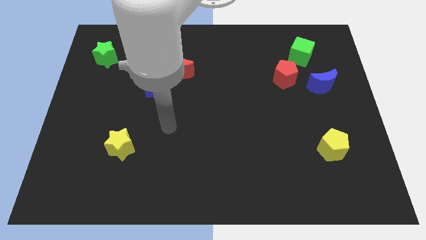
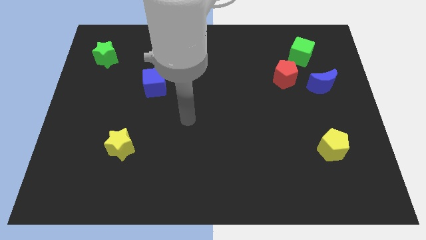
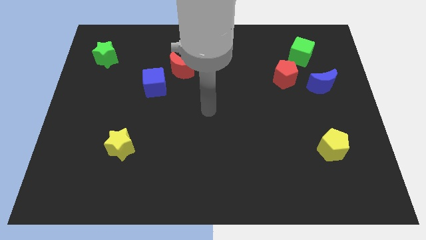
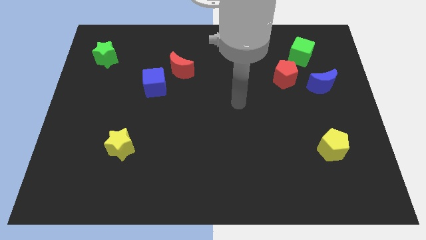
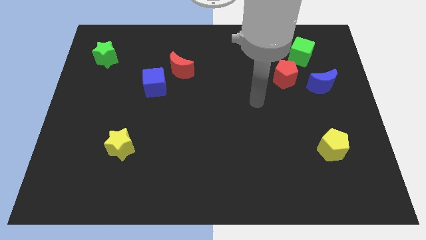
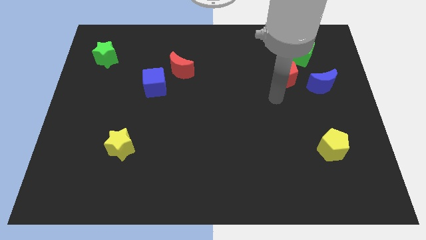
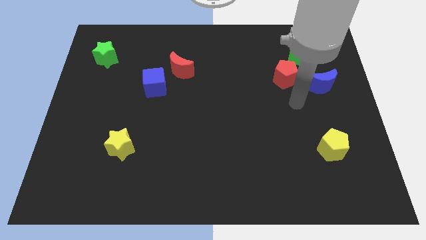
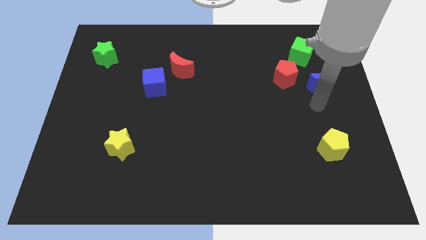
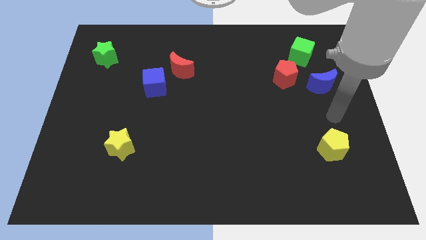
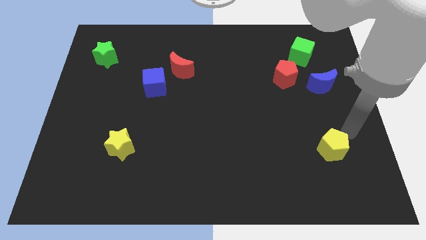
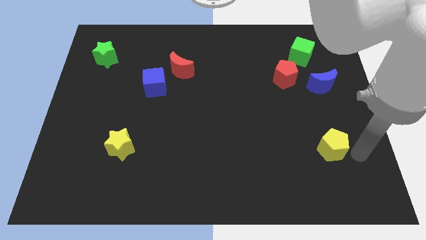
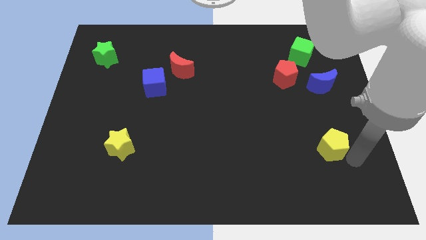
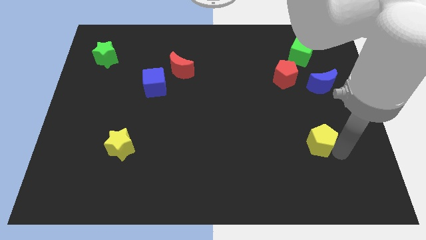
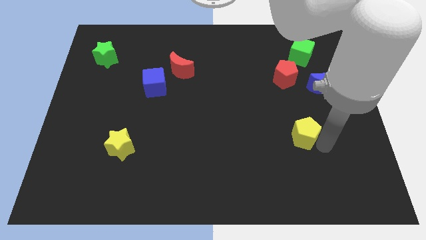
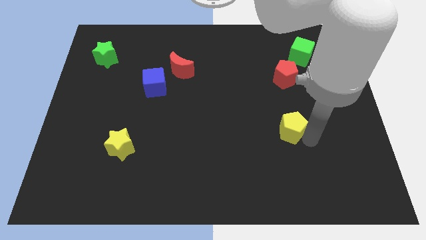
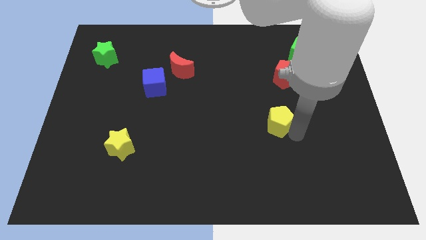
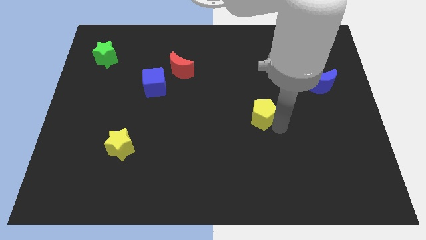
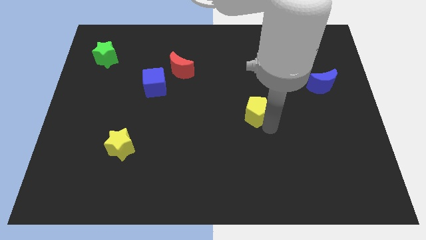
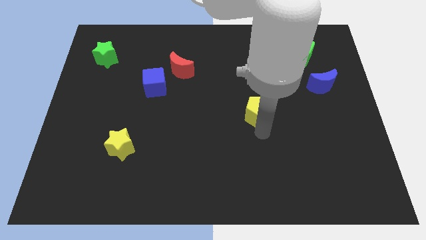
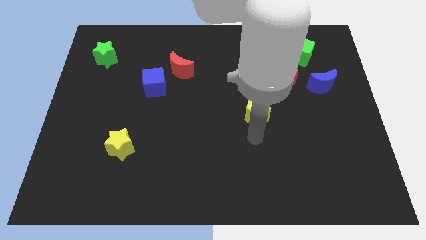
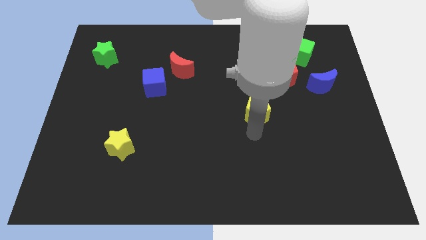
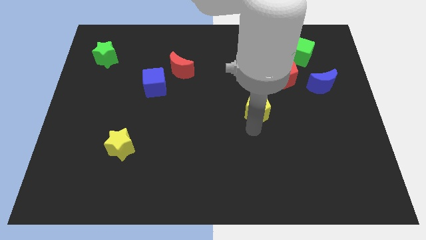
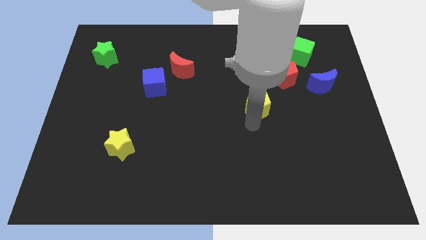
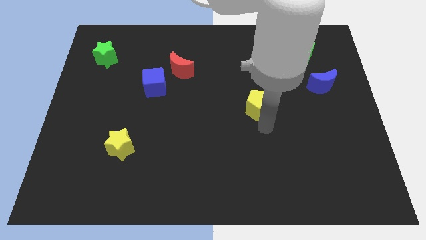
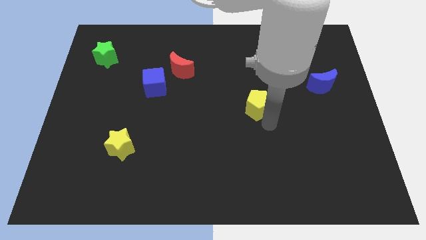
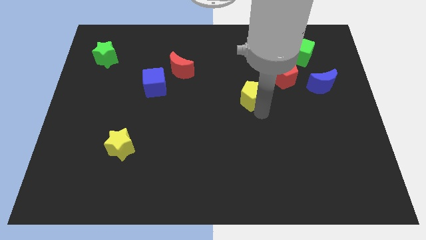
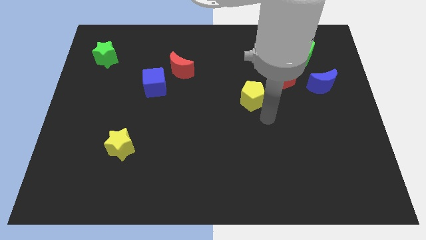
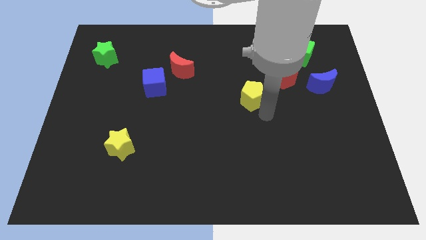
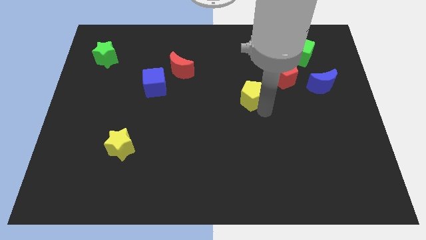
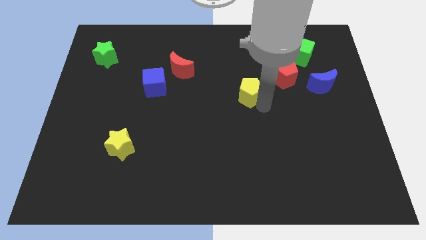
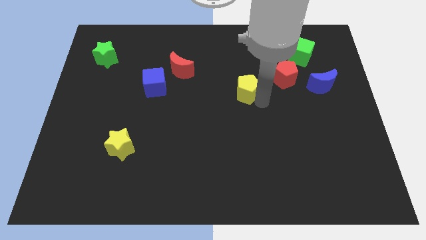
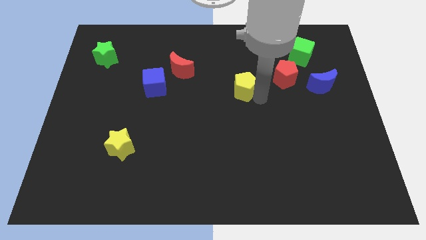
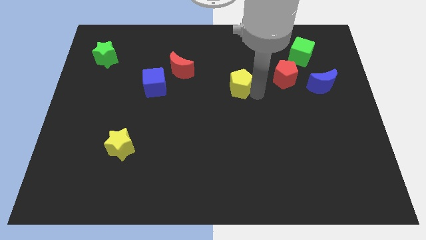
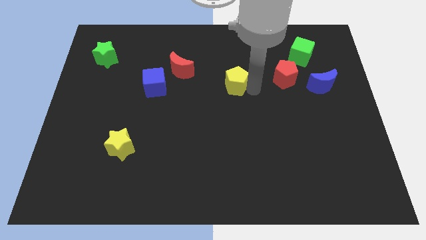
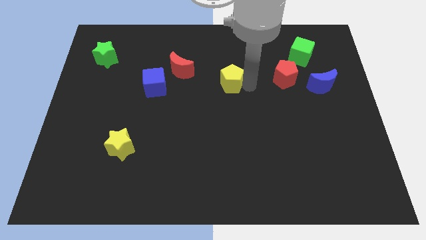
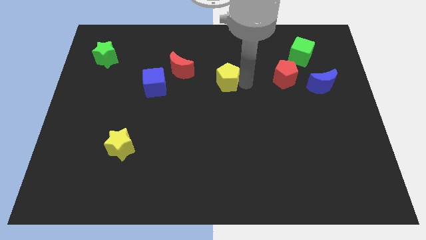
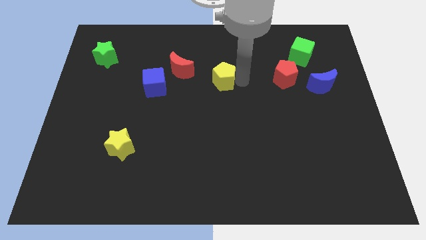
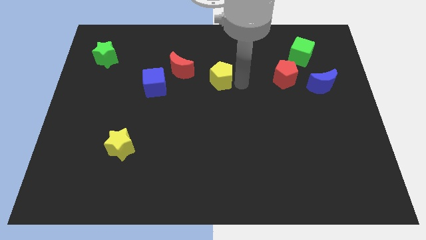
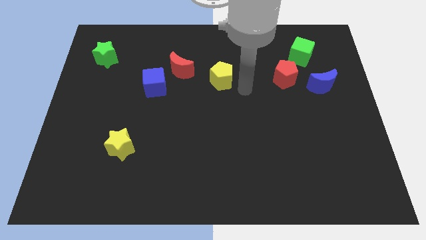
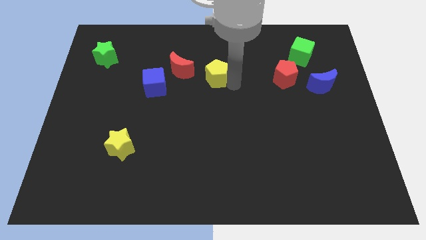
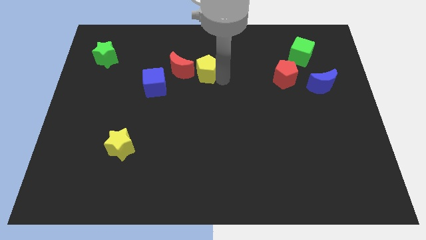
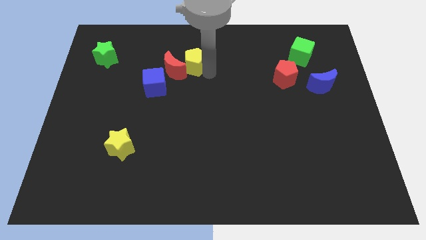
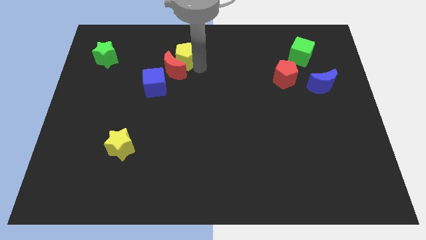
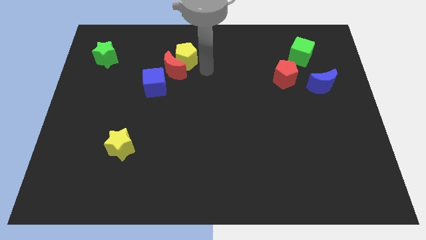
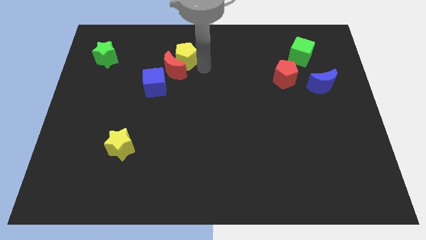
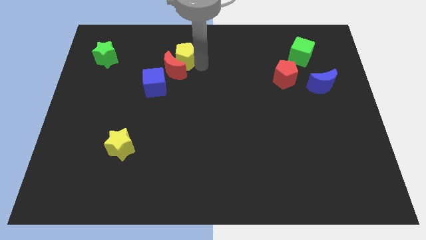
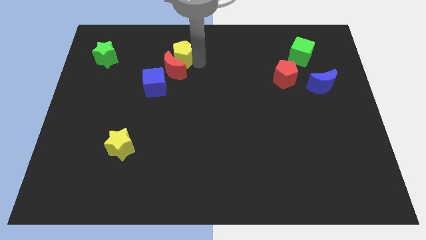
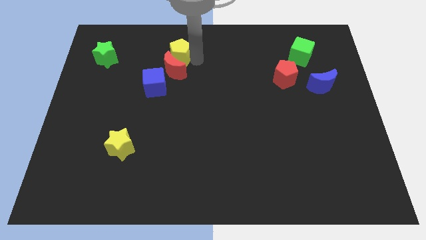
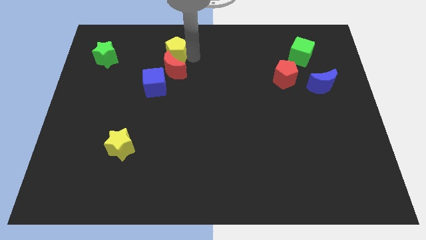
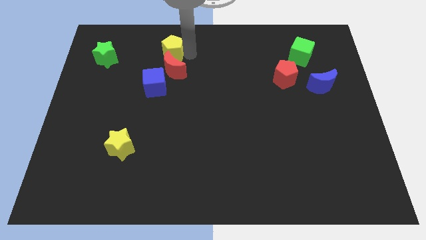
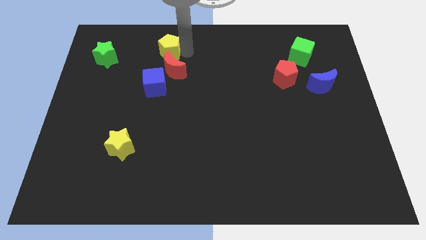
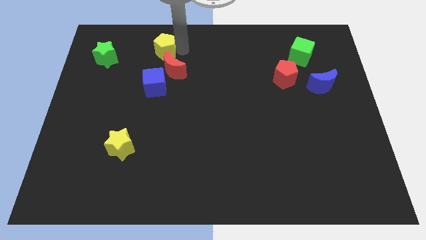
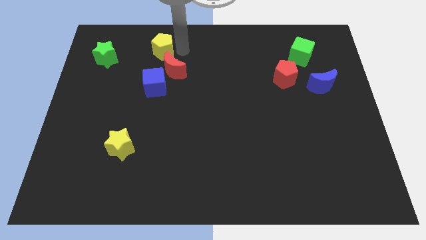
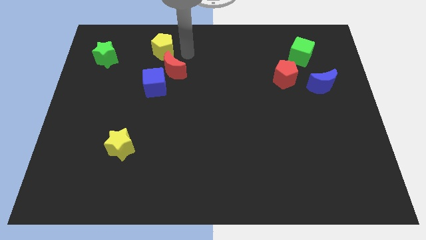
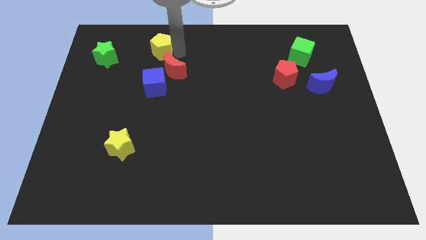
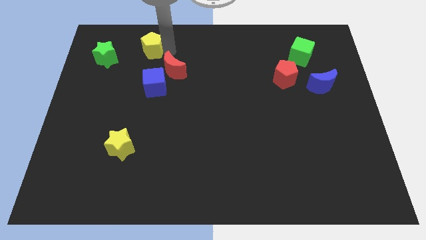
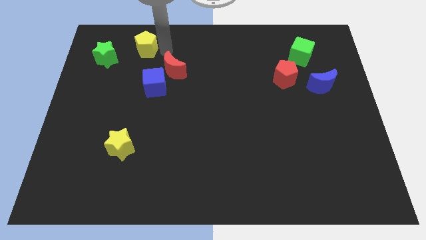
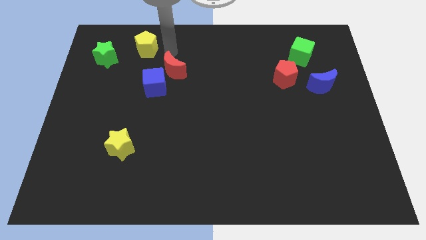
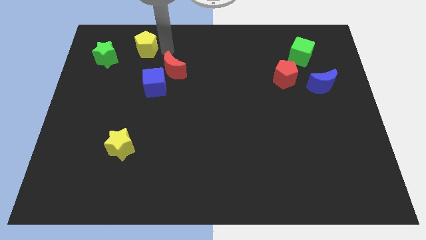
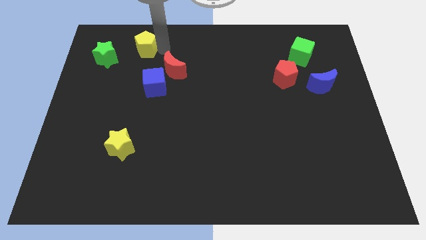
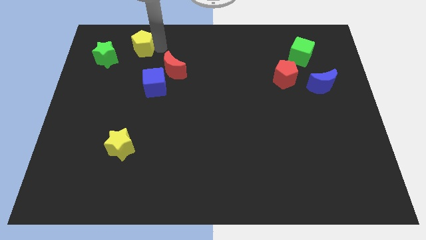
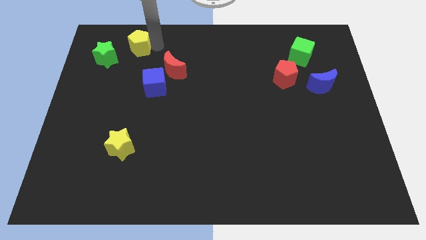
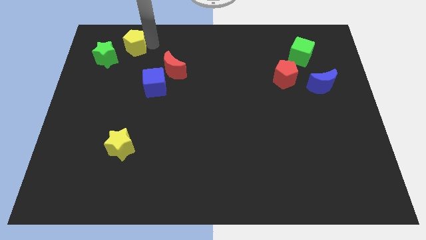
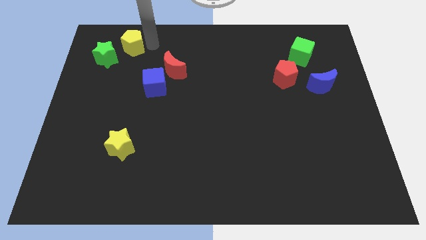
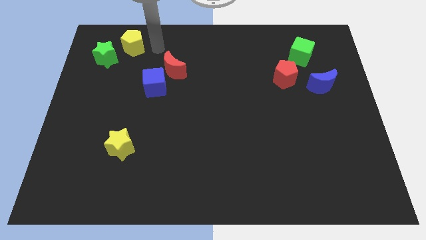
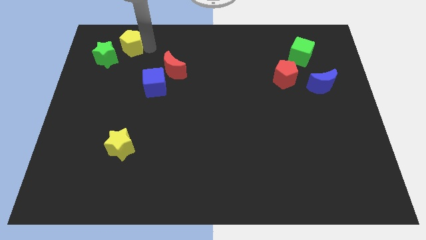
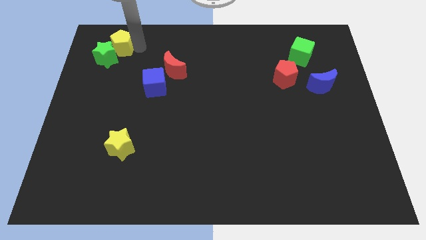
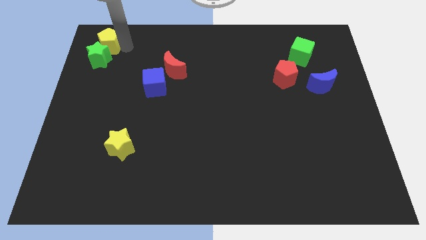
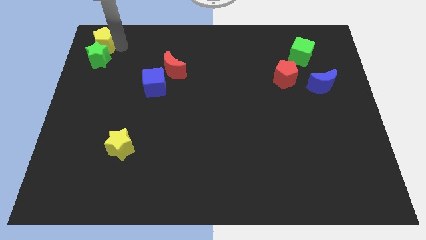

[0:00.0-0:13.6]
put the yellow pentagon to the top left

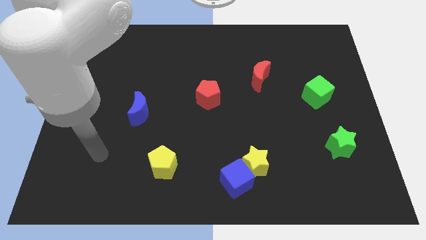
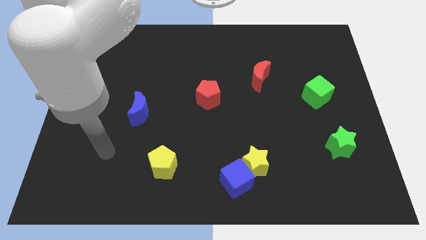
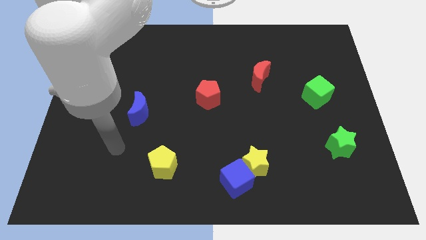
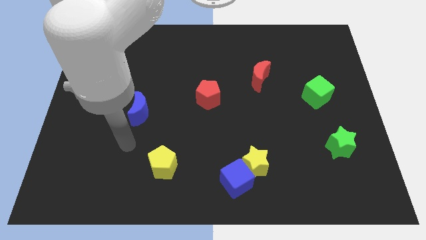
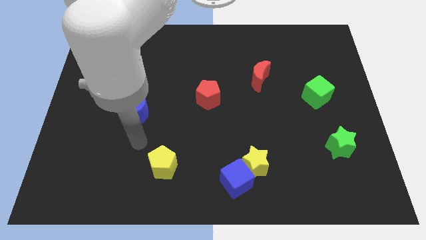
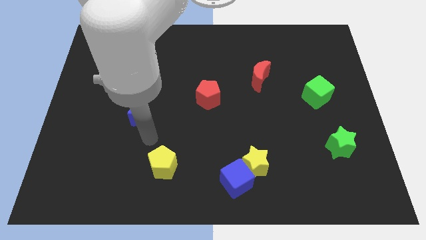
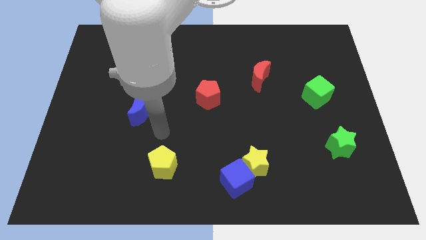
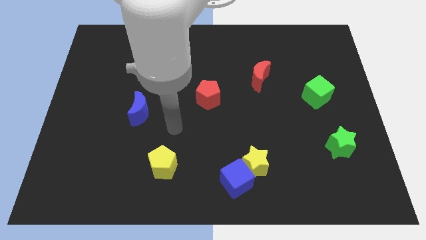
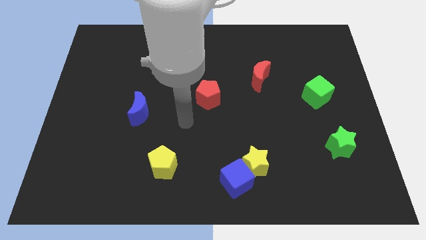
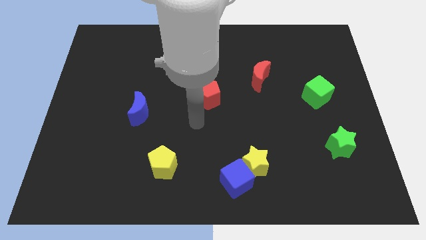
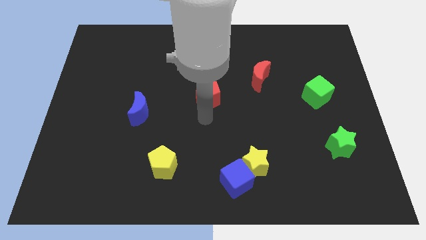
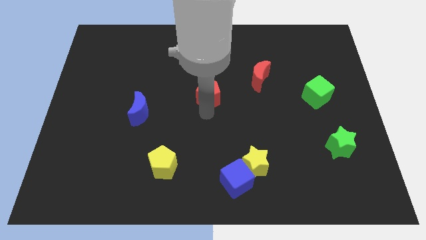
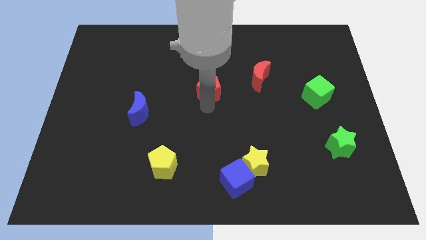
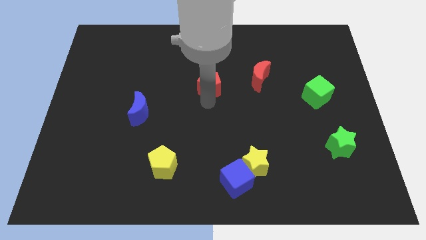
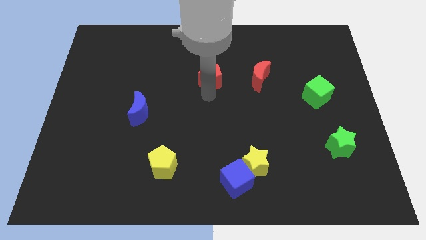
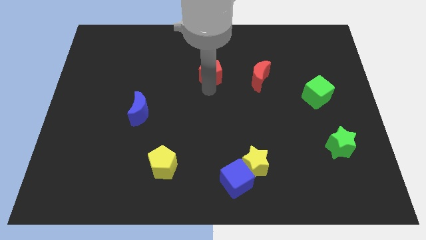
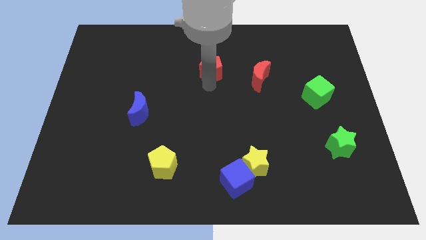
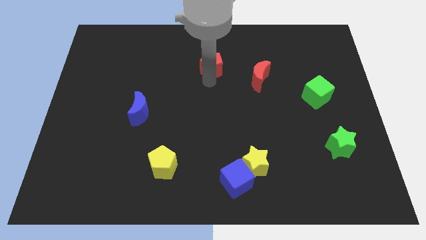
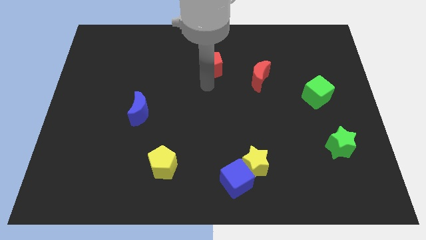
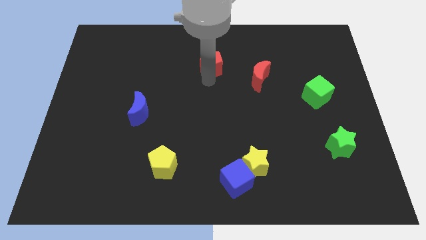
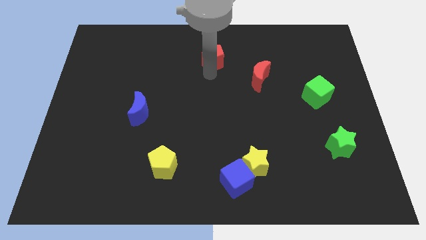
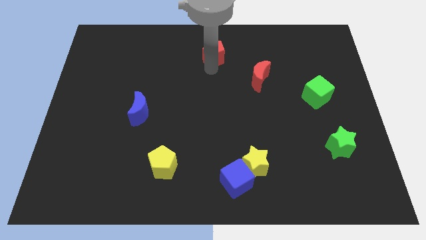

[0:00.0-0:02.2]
slide the red pentagon to the towards your base
